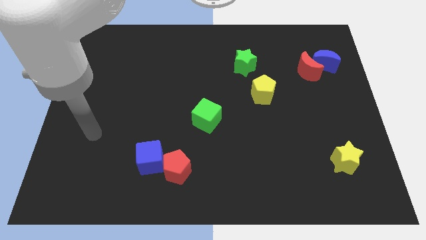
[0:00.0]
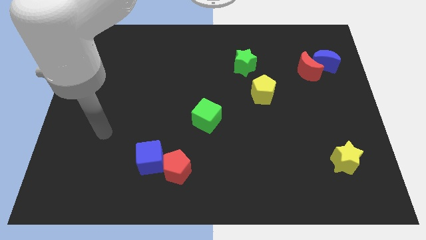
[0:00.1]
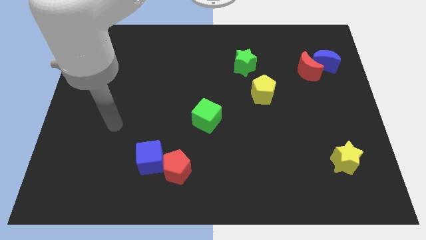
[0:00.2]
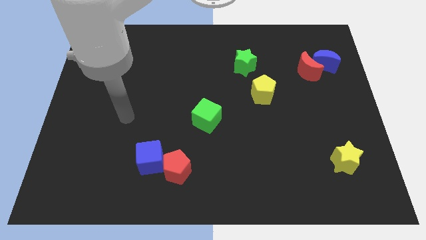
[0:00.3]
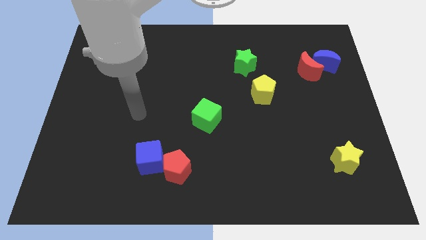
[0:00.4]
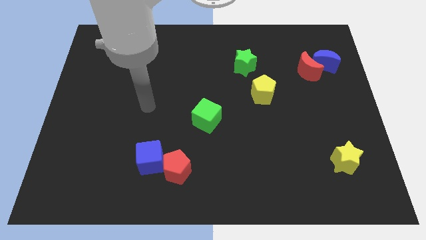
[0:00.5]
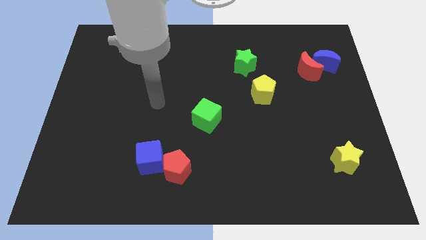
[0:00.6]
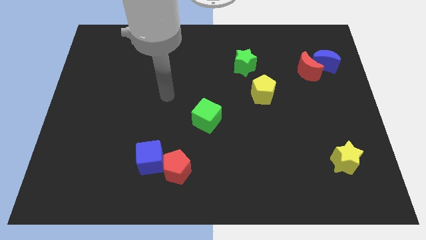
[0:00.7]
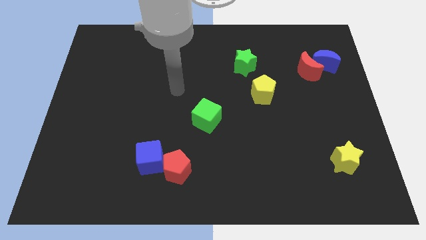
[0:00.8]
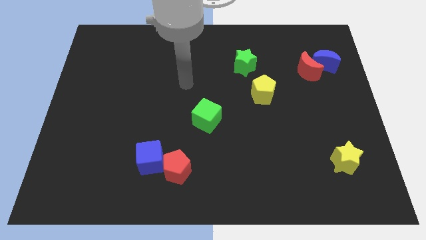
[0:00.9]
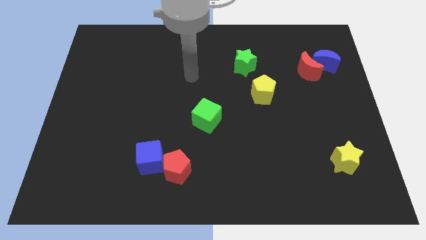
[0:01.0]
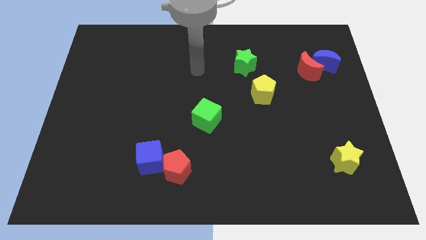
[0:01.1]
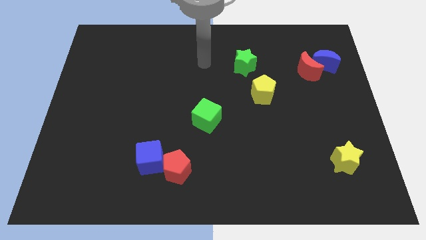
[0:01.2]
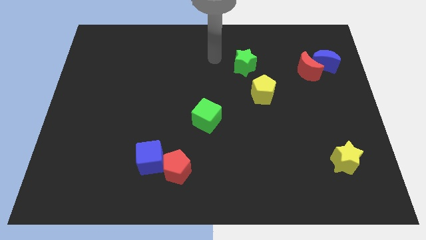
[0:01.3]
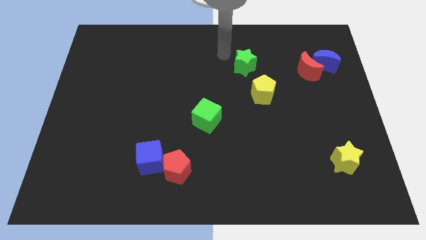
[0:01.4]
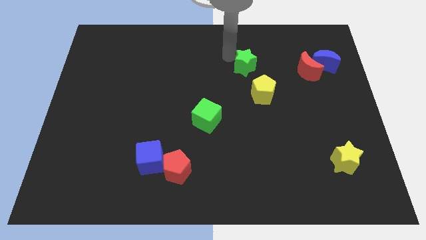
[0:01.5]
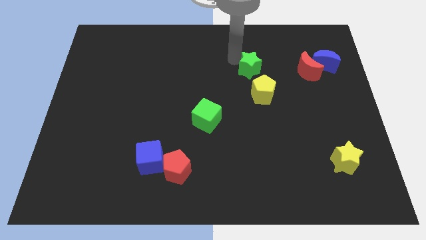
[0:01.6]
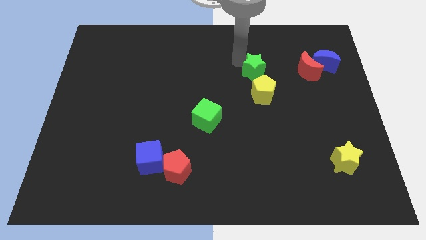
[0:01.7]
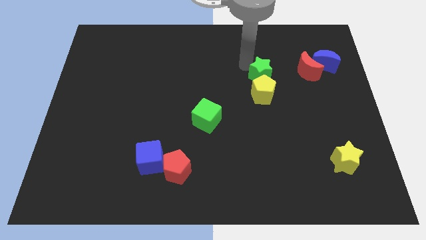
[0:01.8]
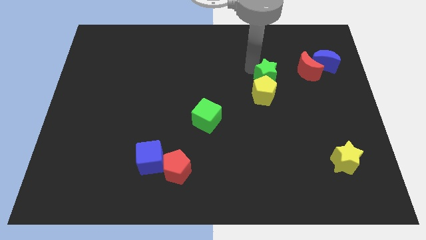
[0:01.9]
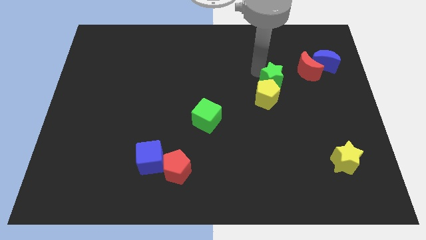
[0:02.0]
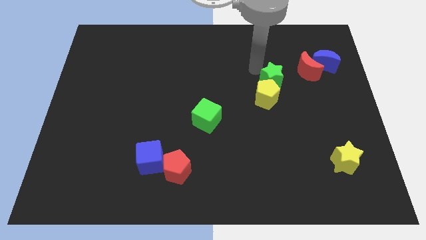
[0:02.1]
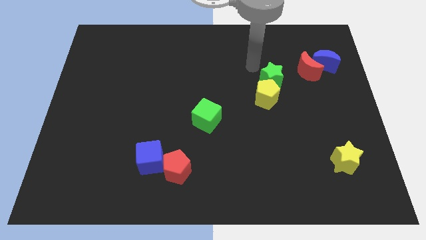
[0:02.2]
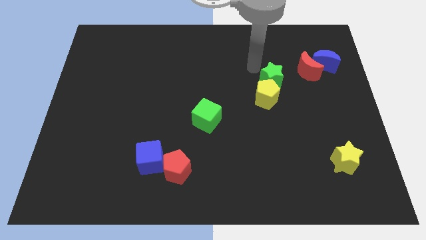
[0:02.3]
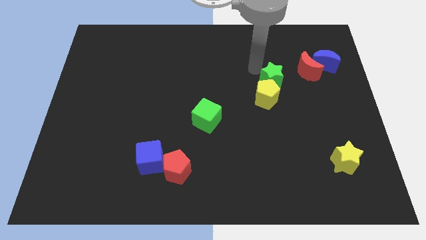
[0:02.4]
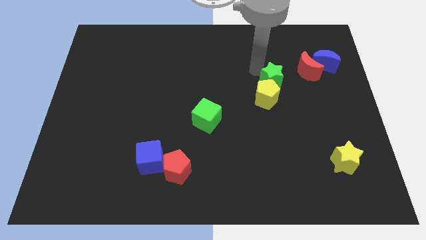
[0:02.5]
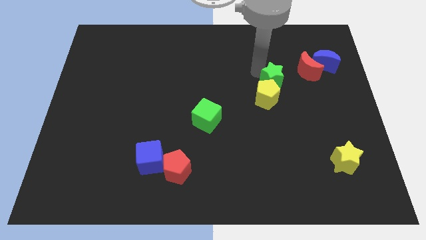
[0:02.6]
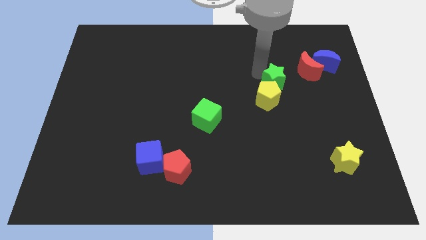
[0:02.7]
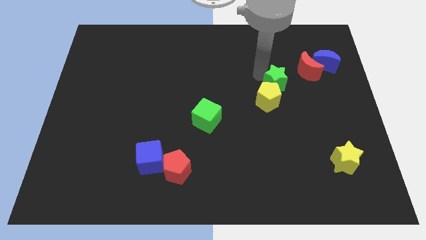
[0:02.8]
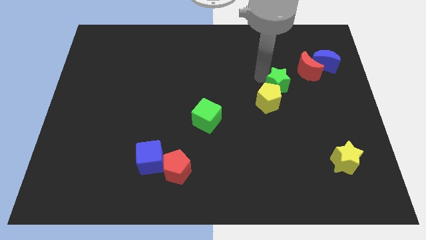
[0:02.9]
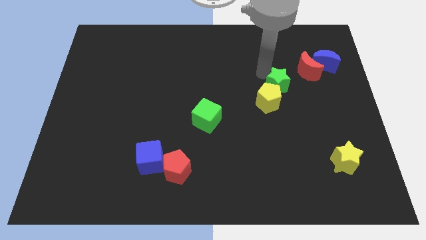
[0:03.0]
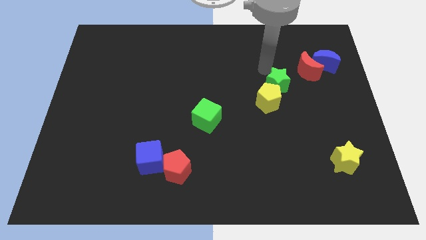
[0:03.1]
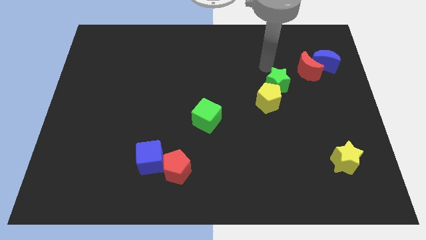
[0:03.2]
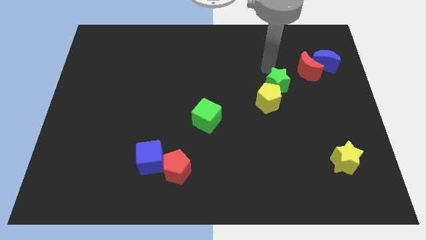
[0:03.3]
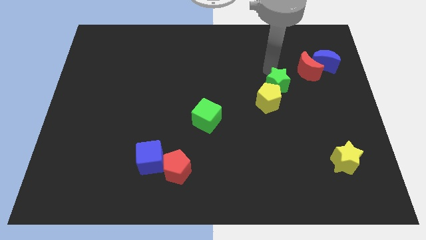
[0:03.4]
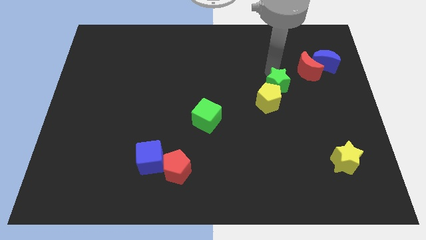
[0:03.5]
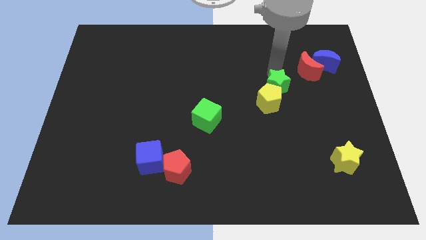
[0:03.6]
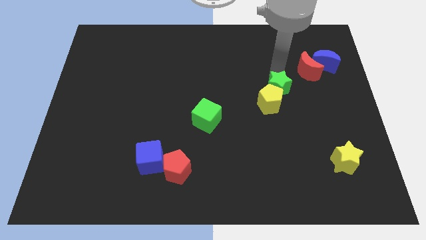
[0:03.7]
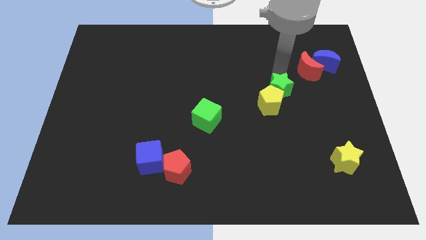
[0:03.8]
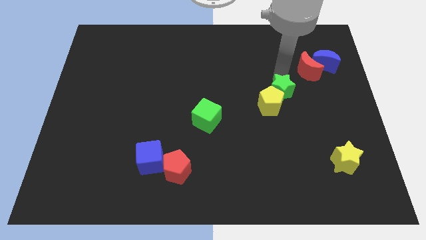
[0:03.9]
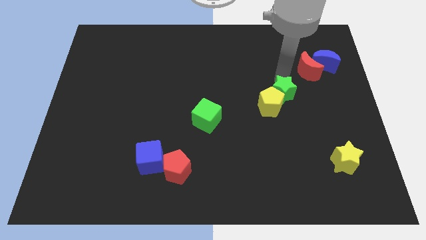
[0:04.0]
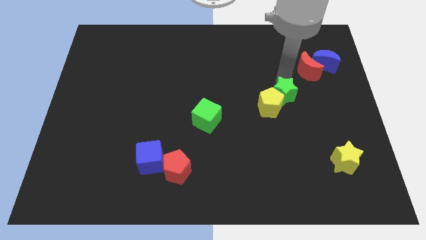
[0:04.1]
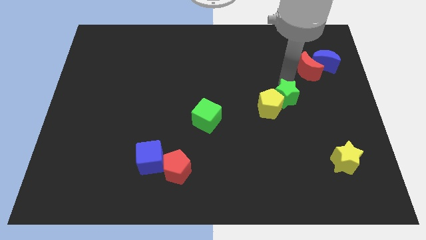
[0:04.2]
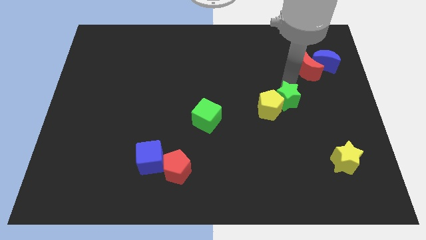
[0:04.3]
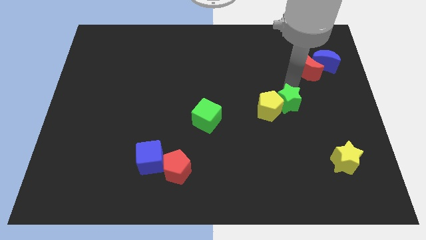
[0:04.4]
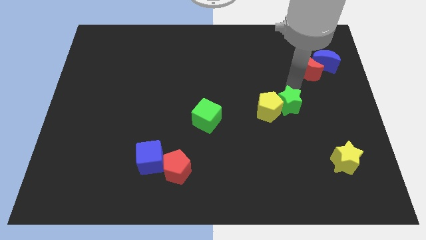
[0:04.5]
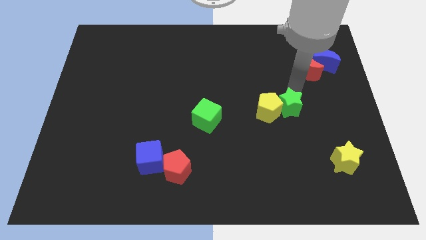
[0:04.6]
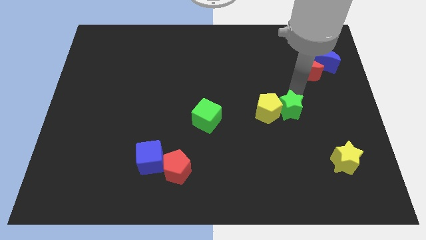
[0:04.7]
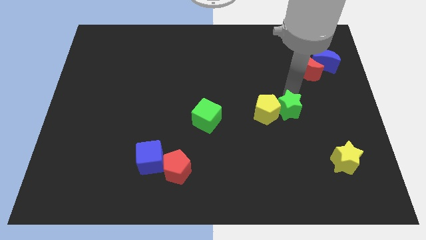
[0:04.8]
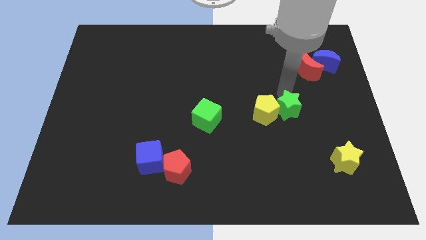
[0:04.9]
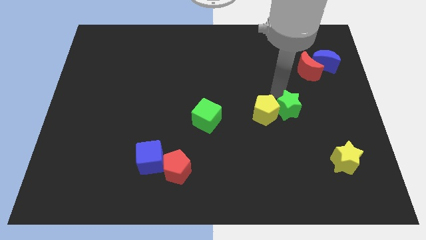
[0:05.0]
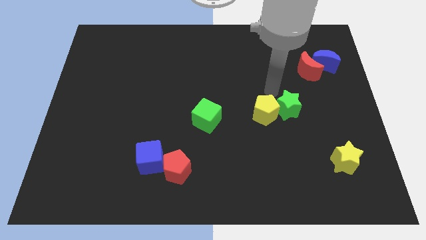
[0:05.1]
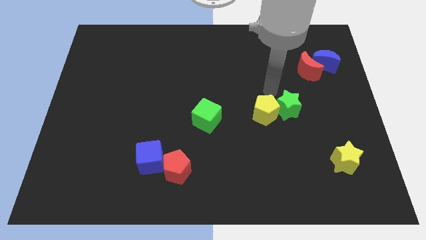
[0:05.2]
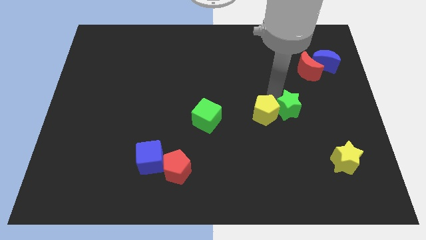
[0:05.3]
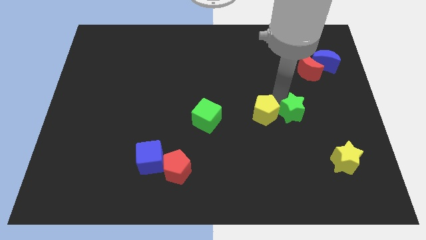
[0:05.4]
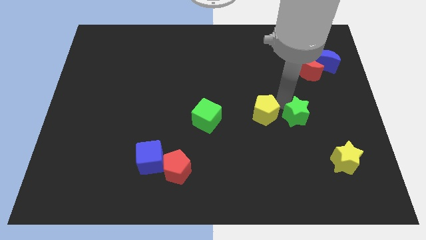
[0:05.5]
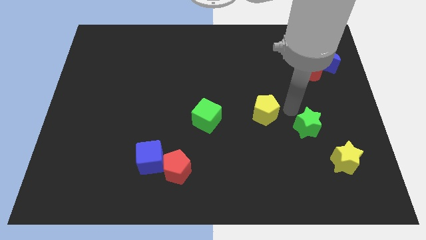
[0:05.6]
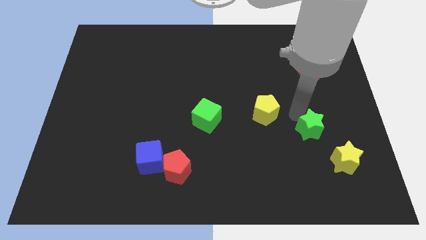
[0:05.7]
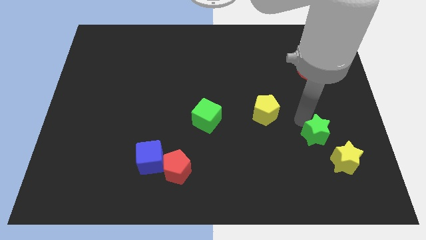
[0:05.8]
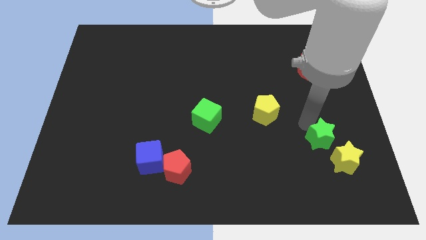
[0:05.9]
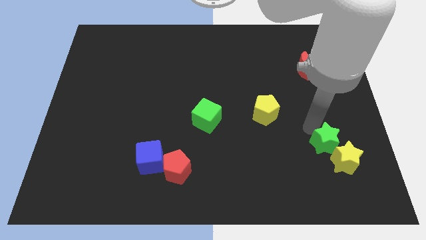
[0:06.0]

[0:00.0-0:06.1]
push the green star to the yellow star
